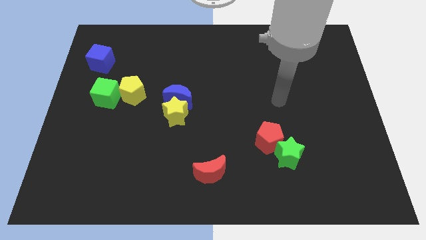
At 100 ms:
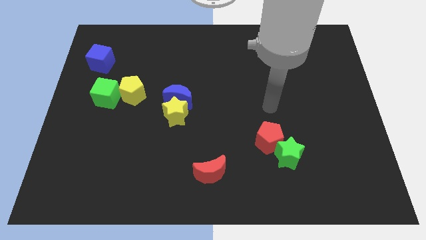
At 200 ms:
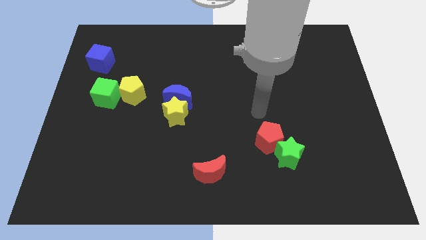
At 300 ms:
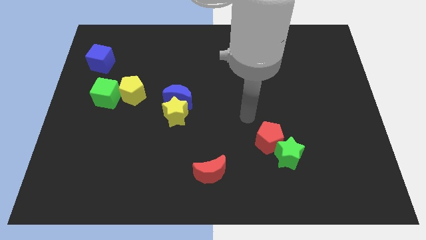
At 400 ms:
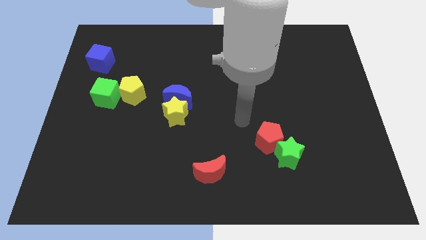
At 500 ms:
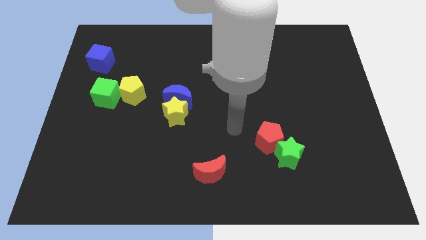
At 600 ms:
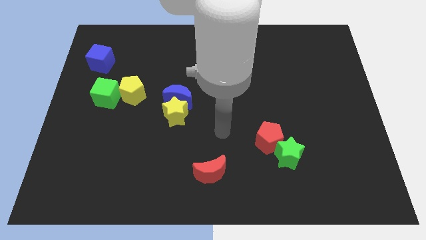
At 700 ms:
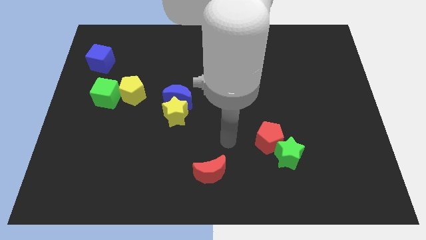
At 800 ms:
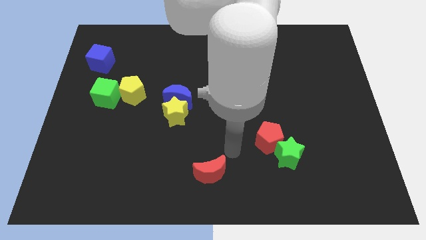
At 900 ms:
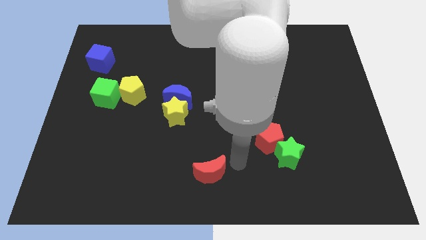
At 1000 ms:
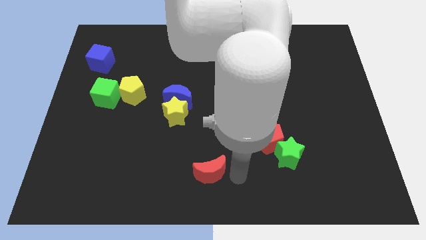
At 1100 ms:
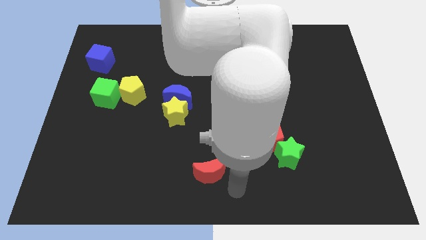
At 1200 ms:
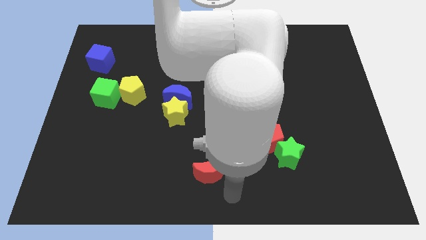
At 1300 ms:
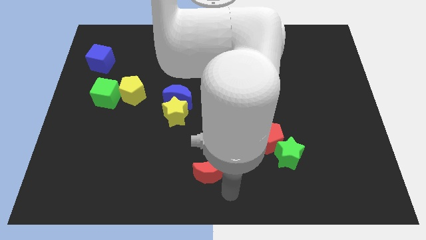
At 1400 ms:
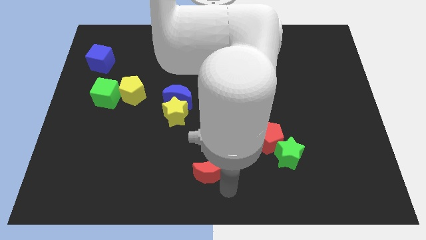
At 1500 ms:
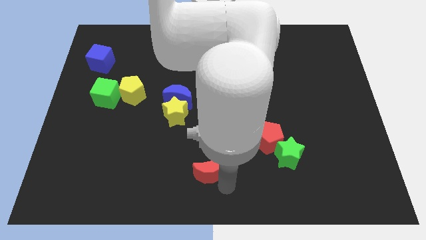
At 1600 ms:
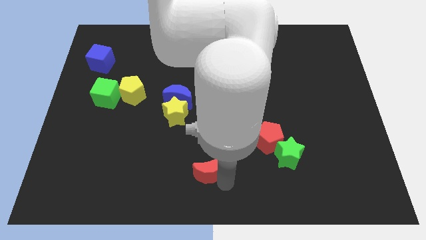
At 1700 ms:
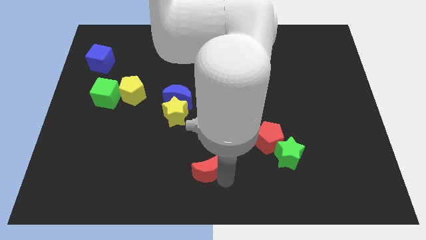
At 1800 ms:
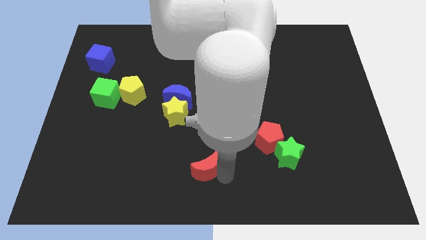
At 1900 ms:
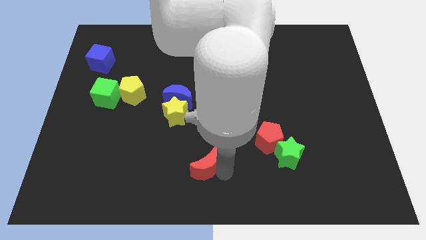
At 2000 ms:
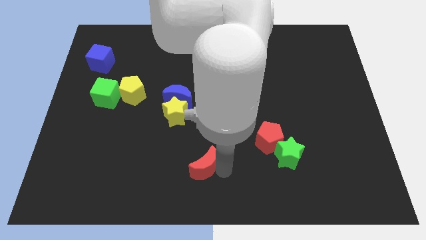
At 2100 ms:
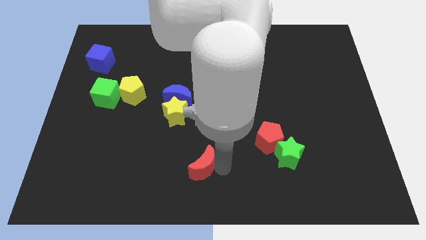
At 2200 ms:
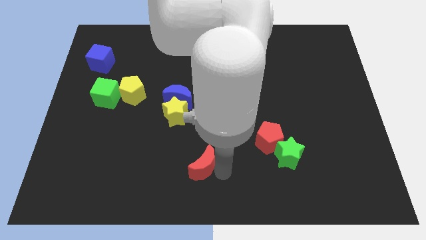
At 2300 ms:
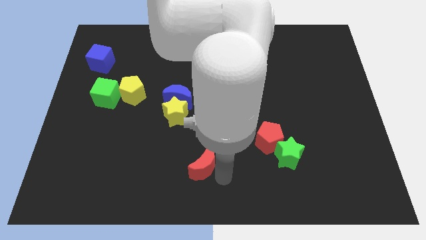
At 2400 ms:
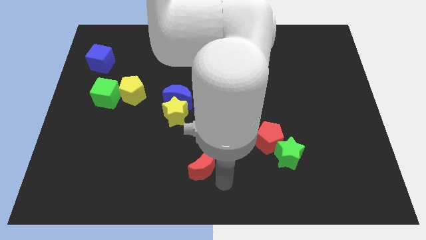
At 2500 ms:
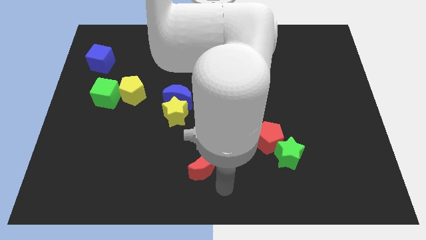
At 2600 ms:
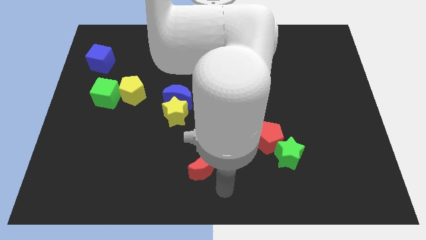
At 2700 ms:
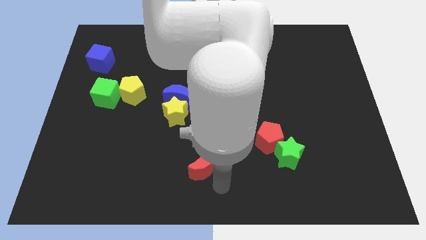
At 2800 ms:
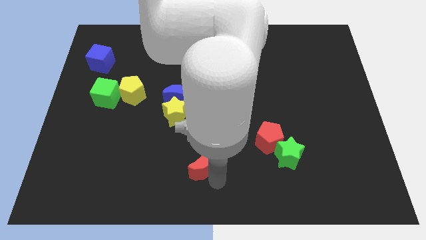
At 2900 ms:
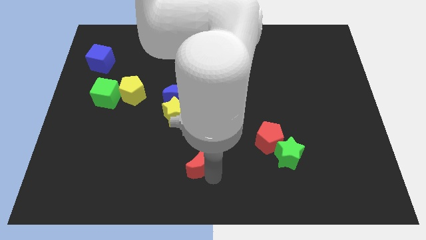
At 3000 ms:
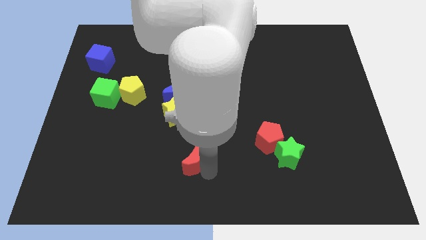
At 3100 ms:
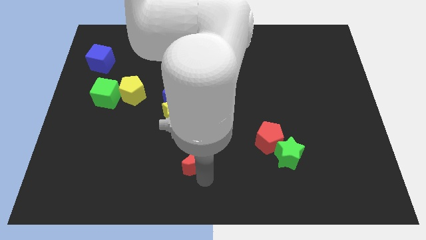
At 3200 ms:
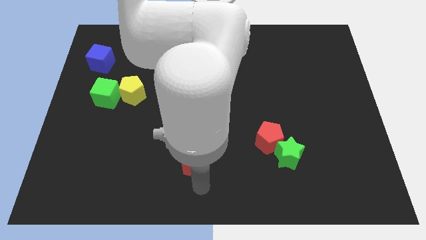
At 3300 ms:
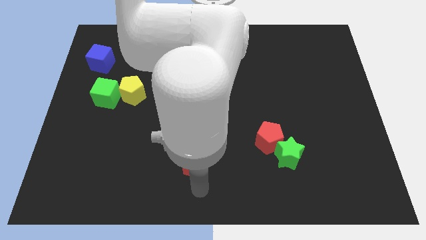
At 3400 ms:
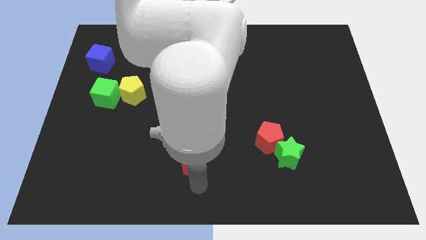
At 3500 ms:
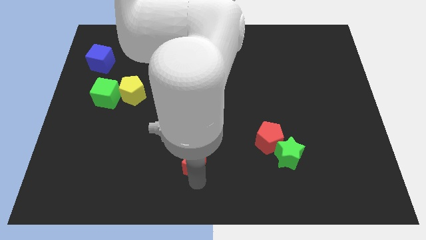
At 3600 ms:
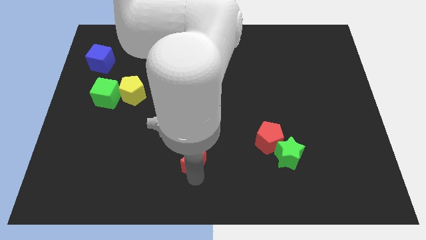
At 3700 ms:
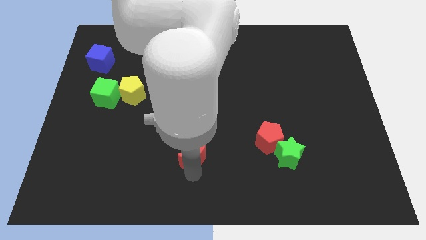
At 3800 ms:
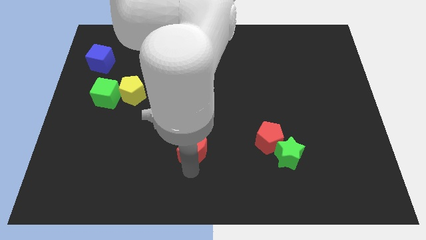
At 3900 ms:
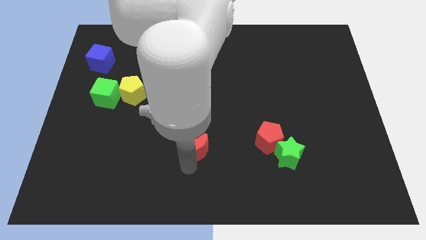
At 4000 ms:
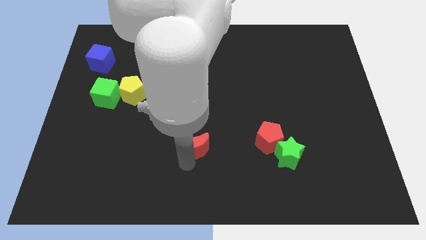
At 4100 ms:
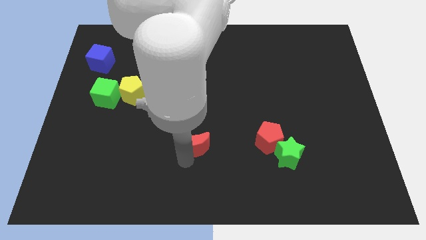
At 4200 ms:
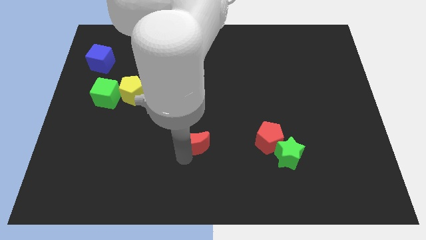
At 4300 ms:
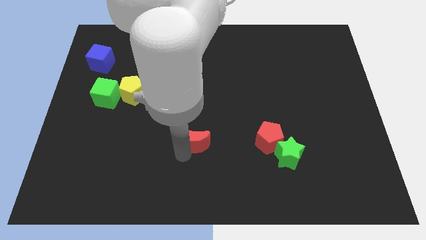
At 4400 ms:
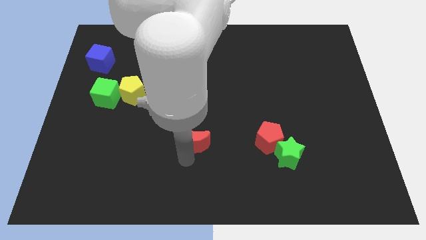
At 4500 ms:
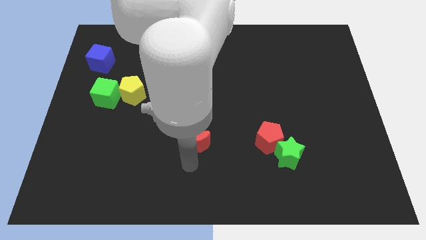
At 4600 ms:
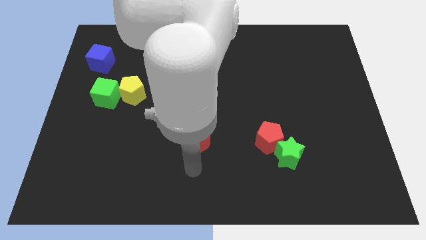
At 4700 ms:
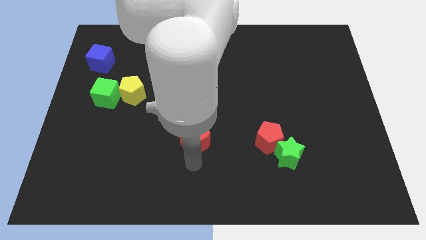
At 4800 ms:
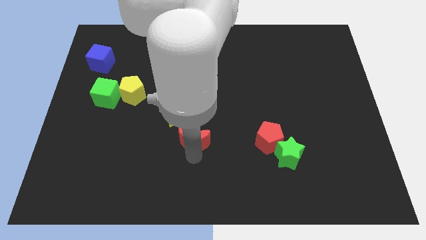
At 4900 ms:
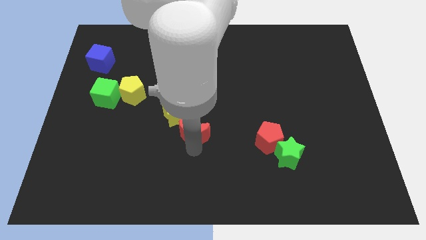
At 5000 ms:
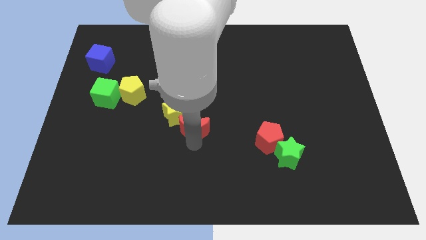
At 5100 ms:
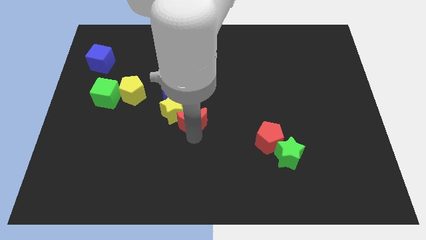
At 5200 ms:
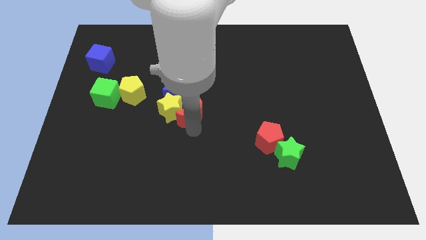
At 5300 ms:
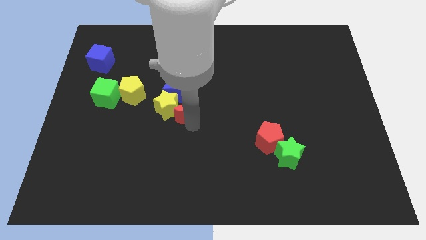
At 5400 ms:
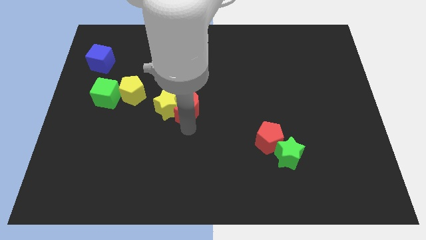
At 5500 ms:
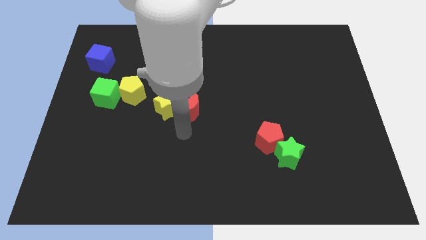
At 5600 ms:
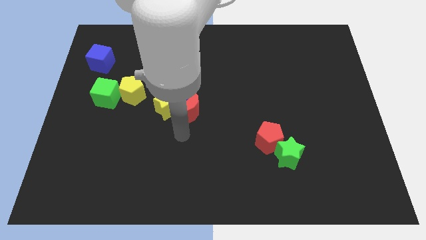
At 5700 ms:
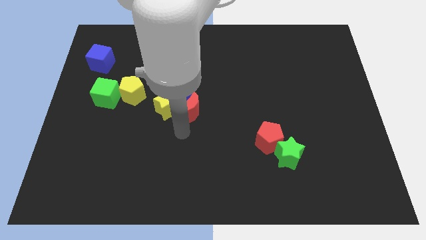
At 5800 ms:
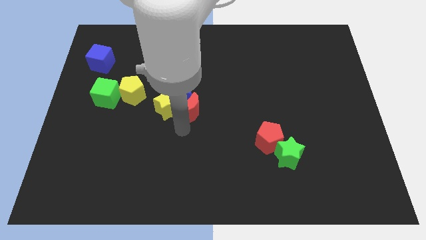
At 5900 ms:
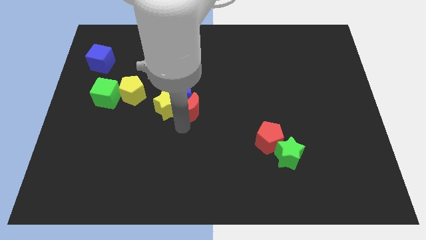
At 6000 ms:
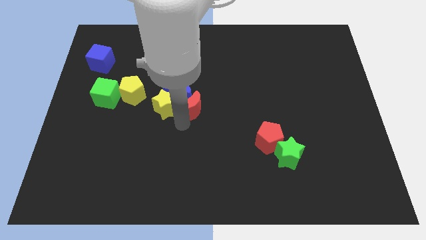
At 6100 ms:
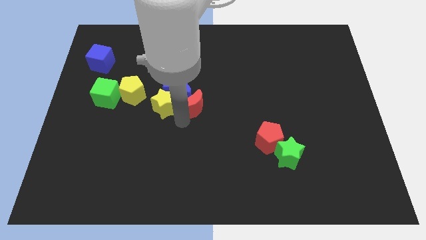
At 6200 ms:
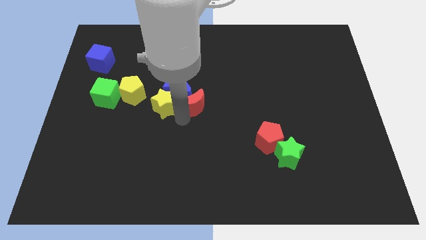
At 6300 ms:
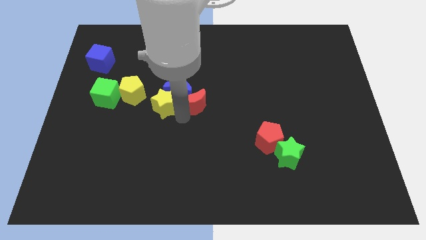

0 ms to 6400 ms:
slide the red moon right of the yellow pentagon
